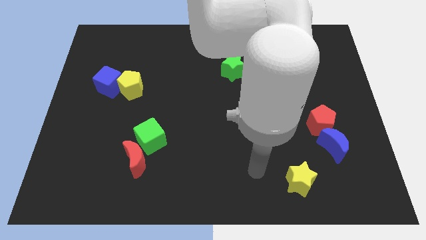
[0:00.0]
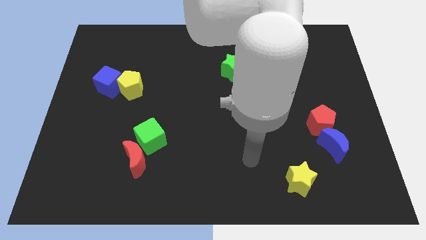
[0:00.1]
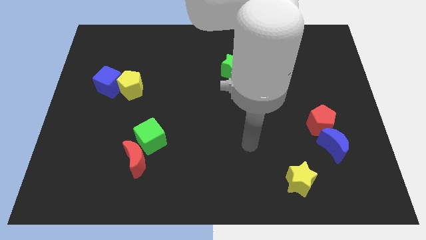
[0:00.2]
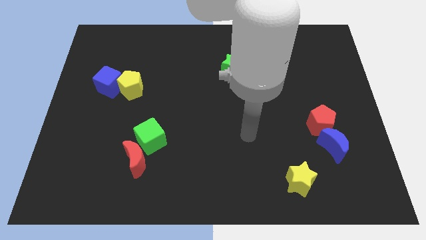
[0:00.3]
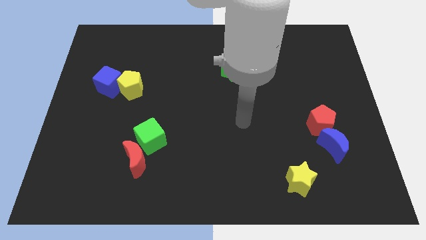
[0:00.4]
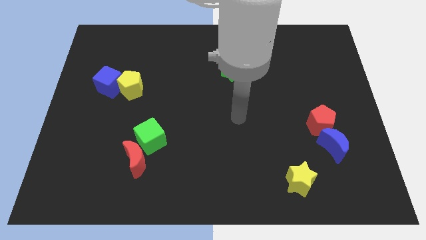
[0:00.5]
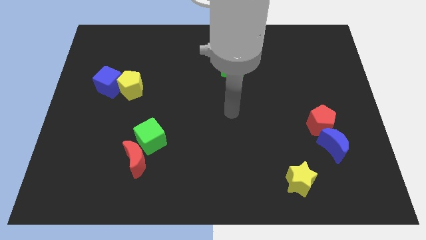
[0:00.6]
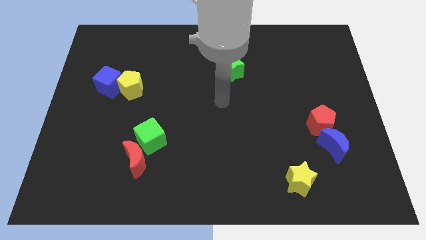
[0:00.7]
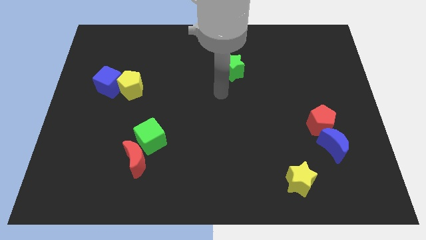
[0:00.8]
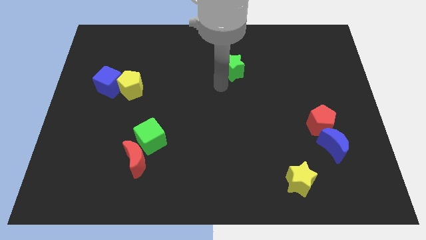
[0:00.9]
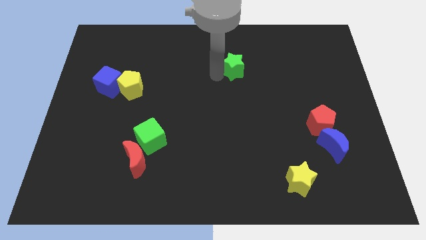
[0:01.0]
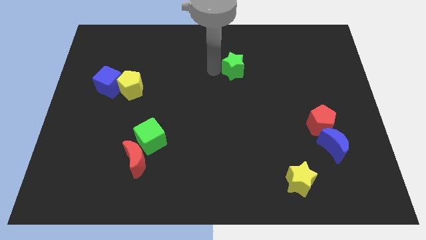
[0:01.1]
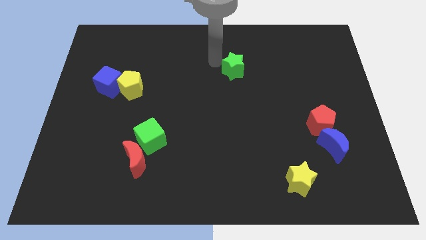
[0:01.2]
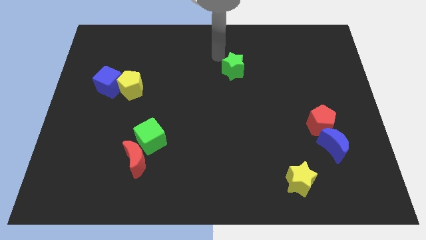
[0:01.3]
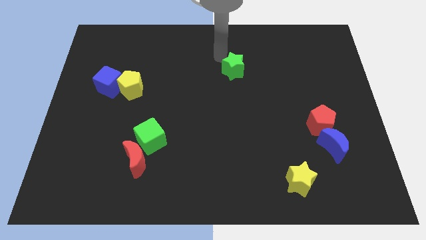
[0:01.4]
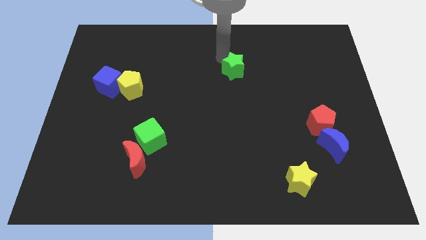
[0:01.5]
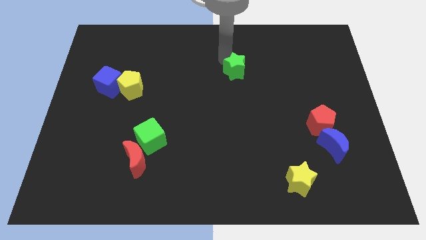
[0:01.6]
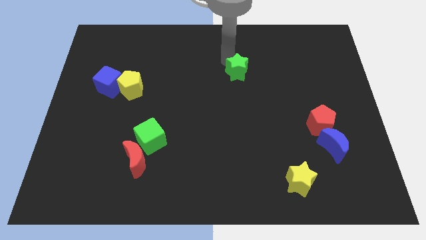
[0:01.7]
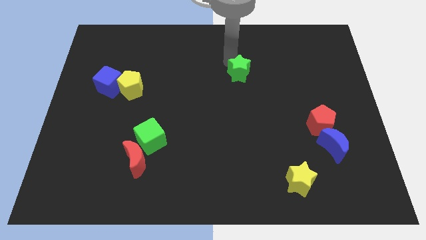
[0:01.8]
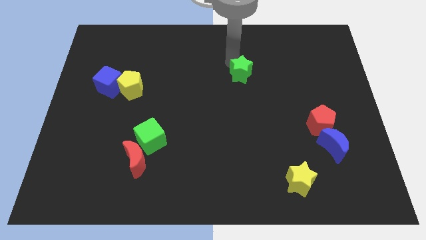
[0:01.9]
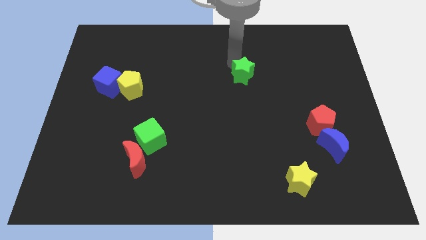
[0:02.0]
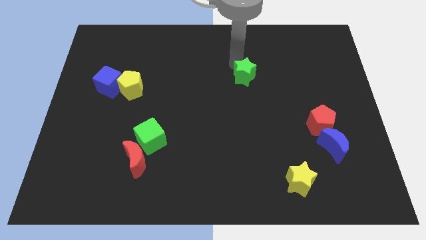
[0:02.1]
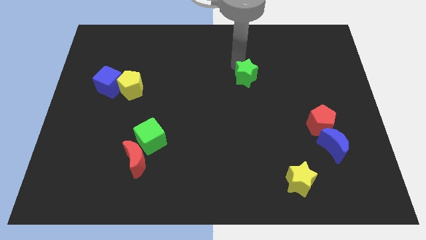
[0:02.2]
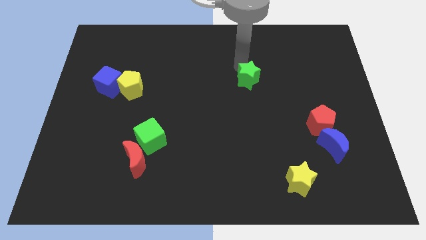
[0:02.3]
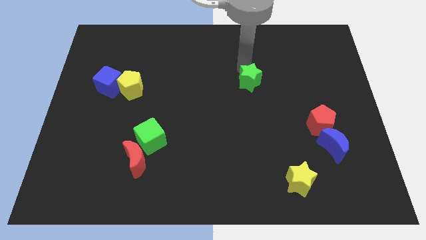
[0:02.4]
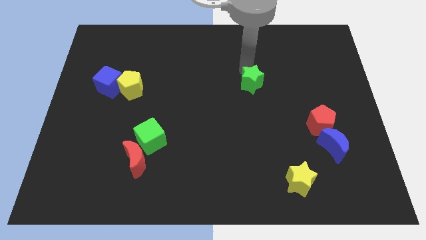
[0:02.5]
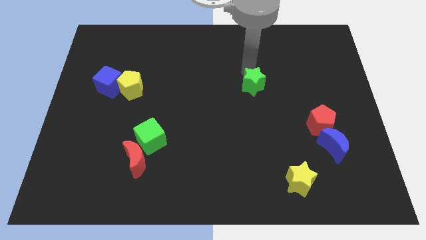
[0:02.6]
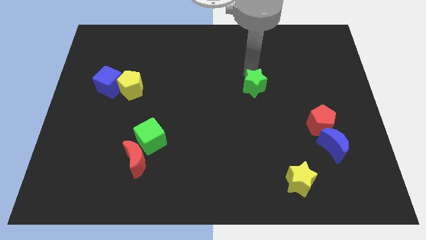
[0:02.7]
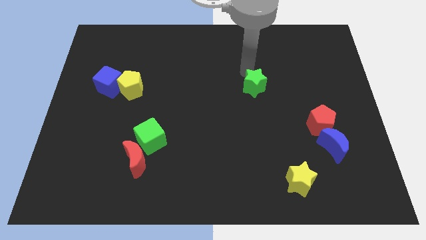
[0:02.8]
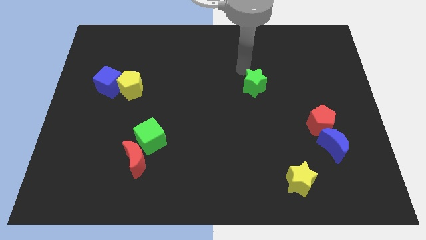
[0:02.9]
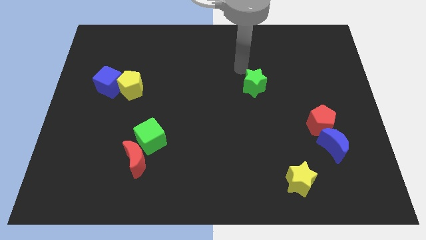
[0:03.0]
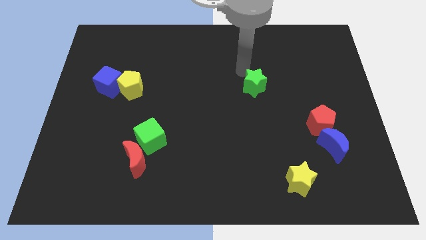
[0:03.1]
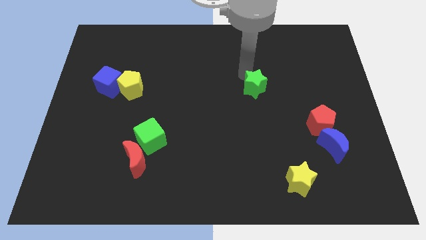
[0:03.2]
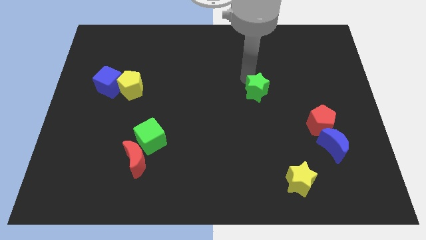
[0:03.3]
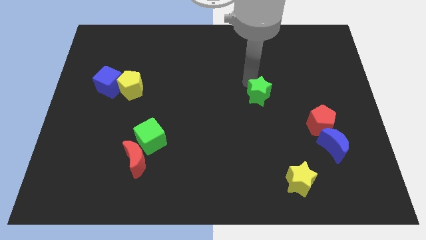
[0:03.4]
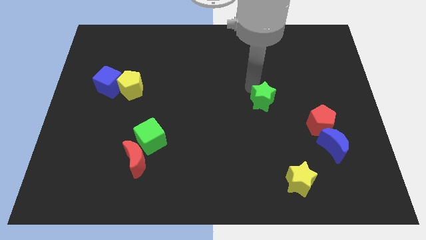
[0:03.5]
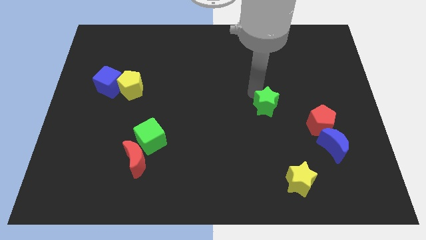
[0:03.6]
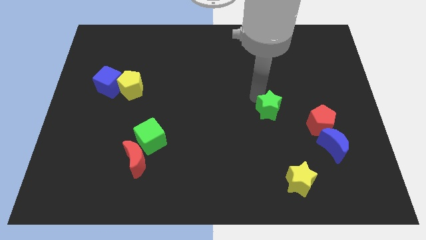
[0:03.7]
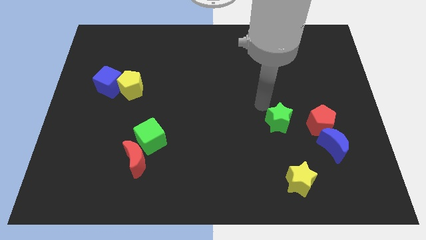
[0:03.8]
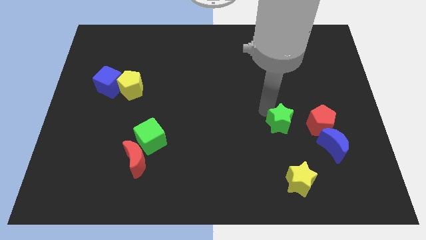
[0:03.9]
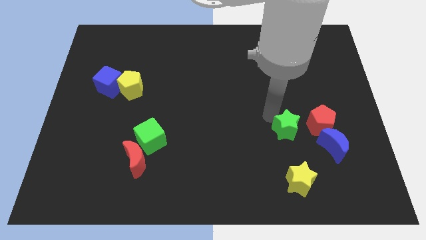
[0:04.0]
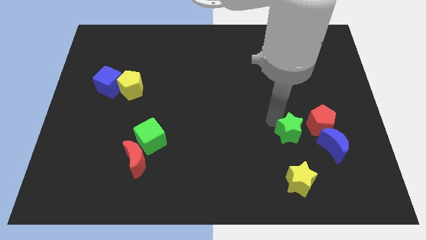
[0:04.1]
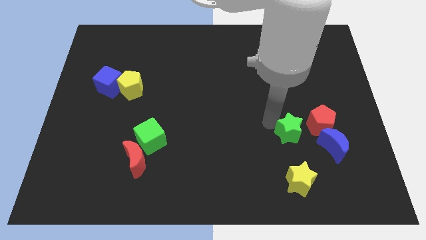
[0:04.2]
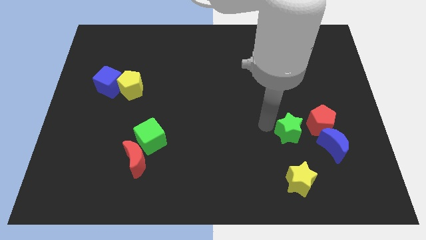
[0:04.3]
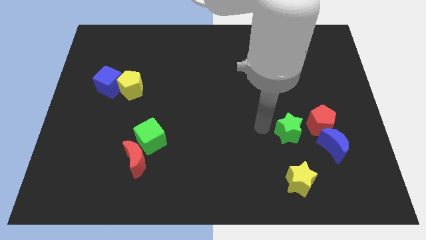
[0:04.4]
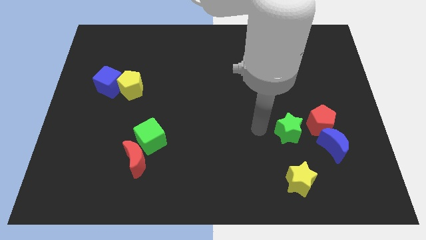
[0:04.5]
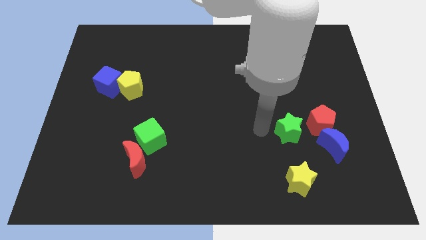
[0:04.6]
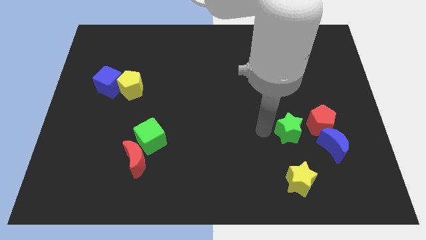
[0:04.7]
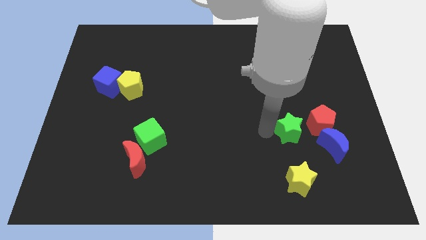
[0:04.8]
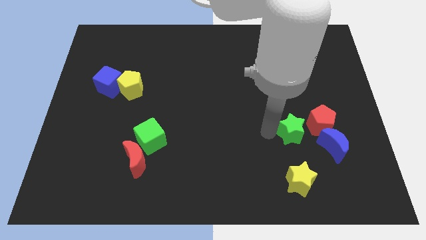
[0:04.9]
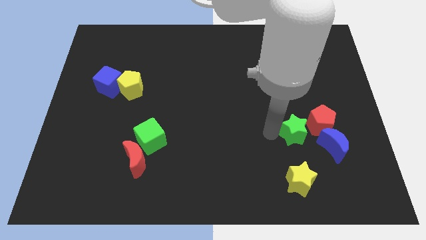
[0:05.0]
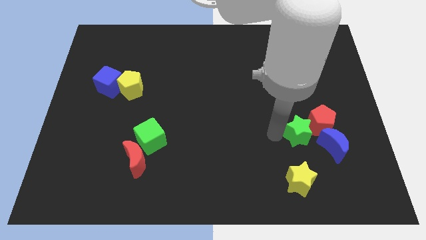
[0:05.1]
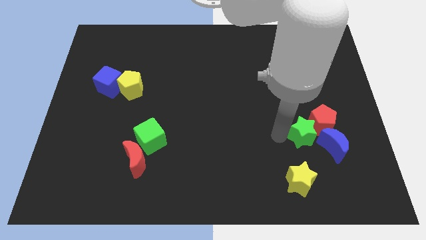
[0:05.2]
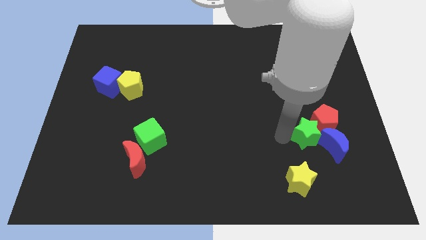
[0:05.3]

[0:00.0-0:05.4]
slide the green star close to the blue moon

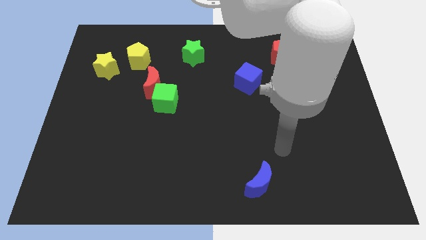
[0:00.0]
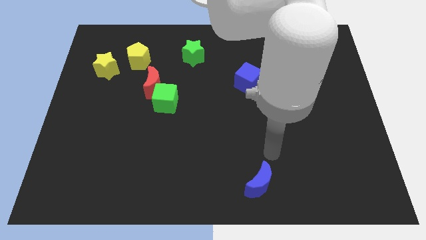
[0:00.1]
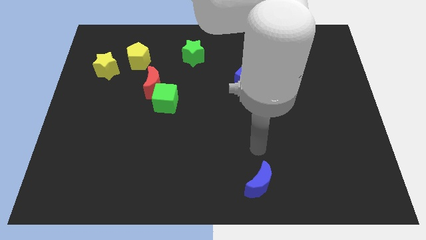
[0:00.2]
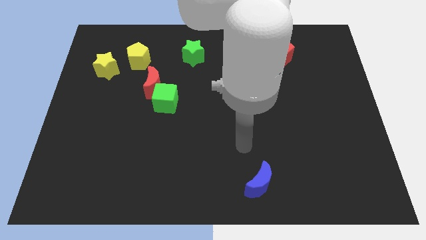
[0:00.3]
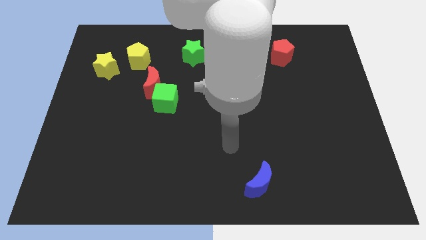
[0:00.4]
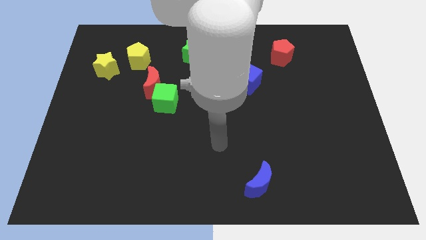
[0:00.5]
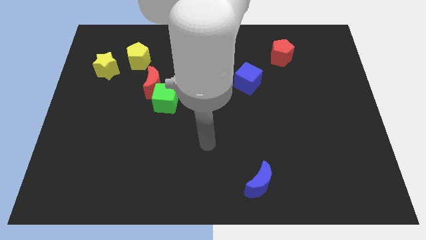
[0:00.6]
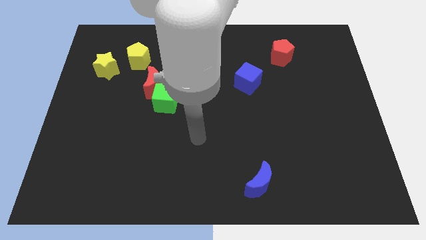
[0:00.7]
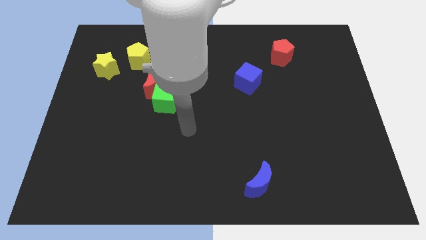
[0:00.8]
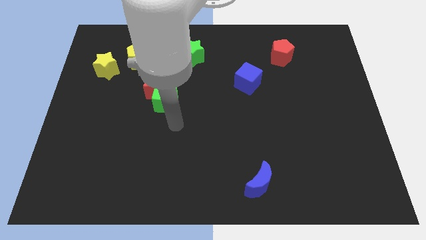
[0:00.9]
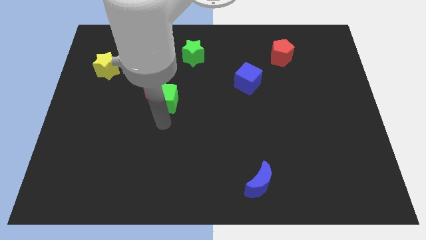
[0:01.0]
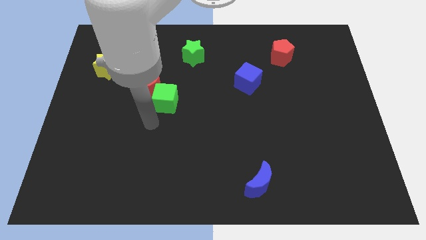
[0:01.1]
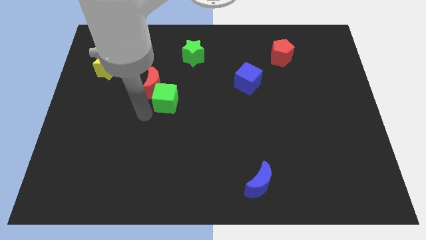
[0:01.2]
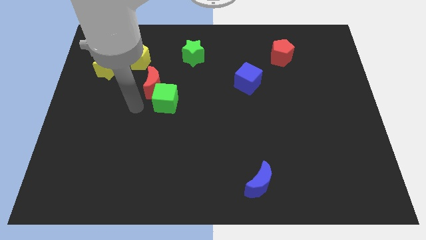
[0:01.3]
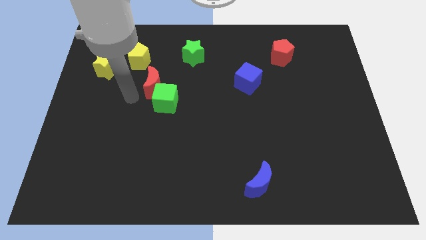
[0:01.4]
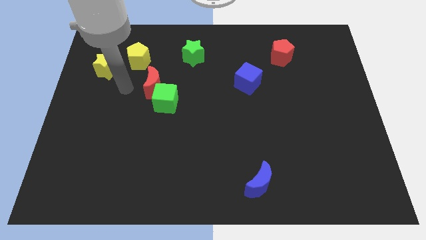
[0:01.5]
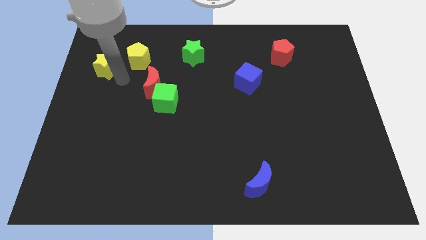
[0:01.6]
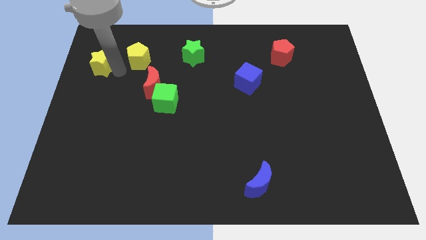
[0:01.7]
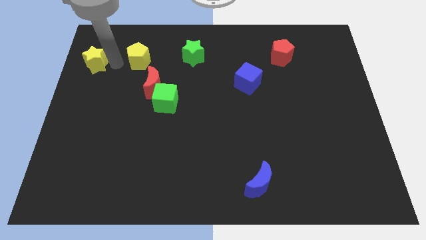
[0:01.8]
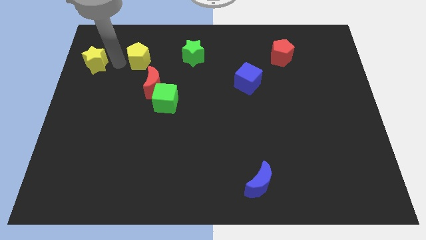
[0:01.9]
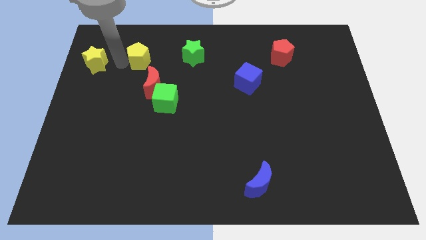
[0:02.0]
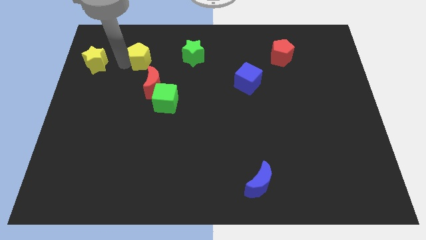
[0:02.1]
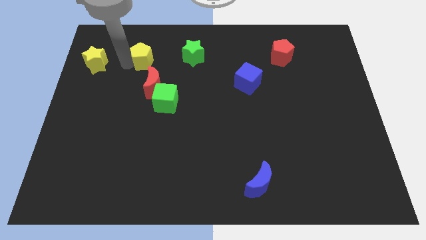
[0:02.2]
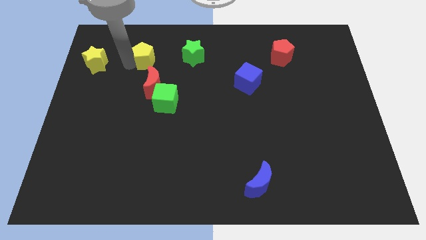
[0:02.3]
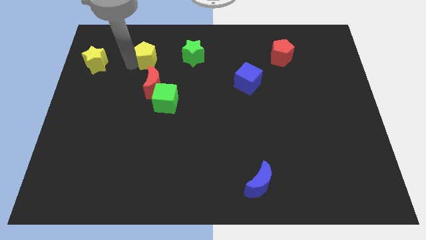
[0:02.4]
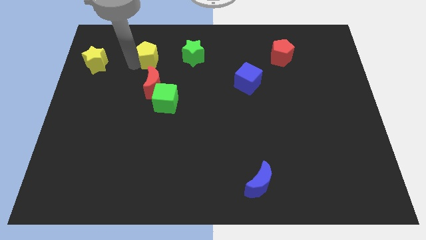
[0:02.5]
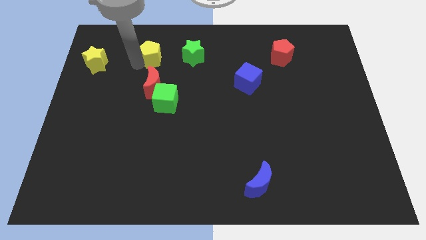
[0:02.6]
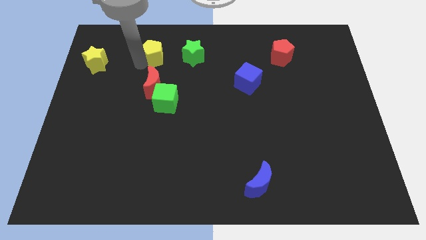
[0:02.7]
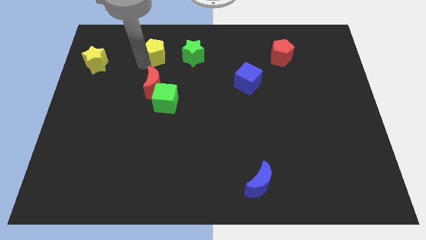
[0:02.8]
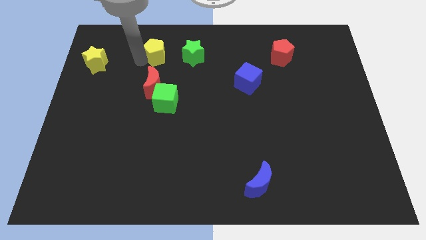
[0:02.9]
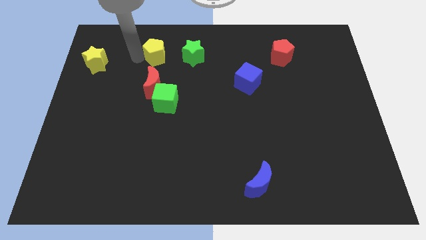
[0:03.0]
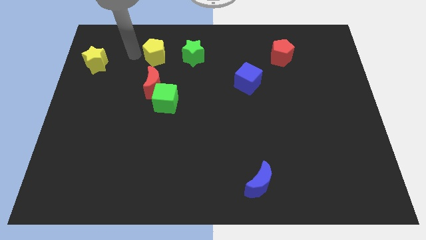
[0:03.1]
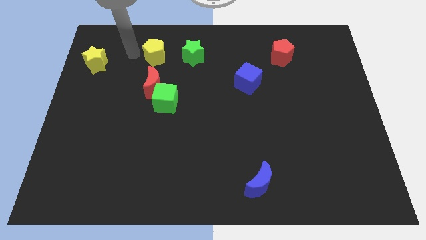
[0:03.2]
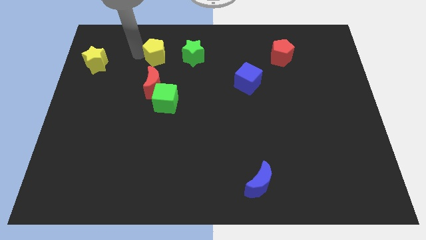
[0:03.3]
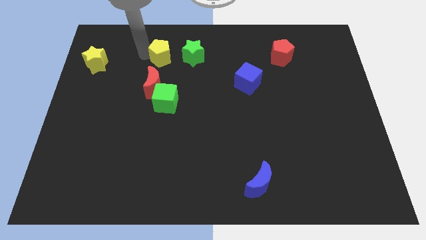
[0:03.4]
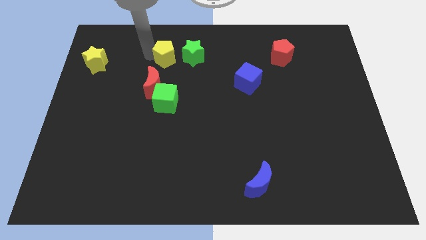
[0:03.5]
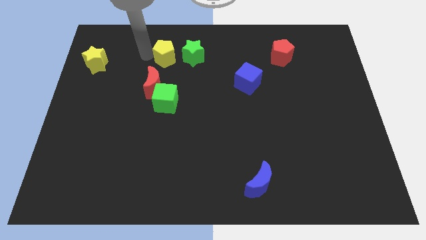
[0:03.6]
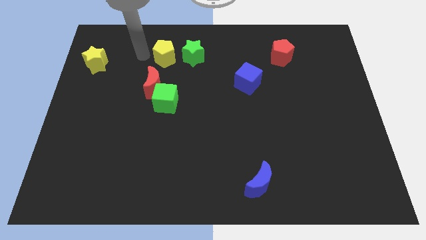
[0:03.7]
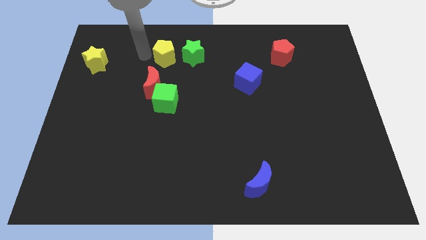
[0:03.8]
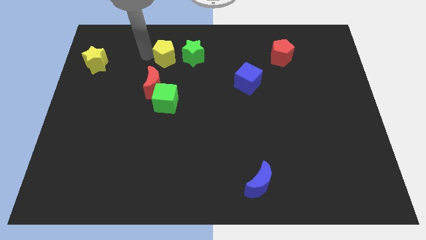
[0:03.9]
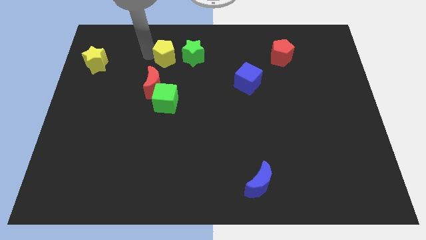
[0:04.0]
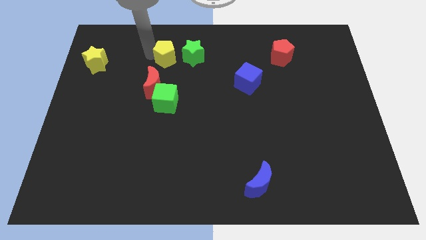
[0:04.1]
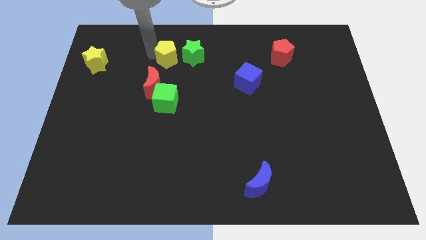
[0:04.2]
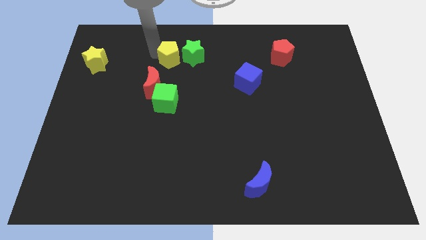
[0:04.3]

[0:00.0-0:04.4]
move the yellow pentagon close to the green star
